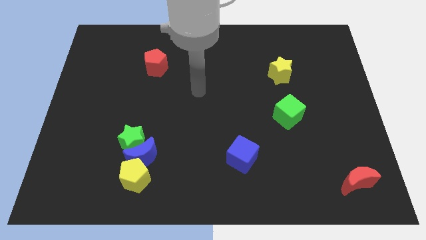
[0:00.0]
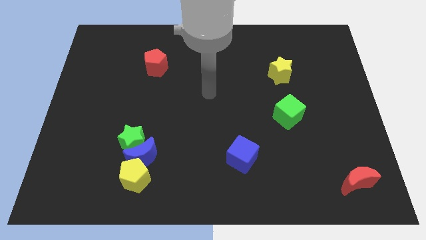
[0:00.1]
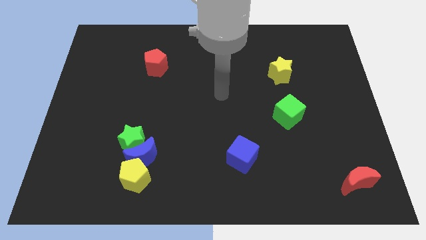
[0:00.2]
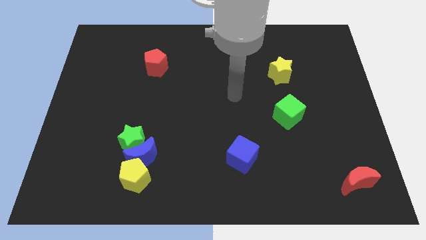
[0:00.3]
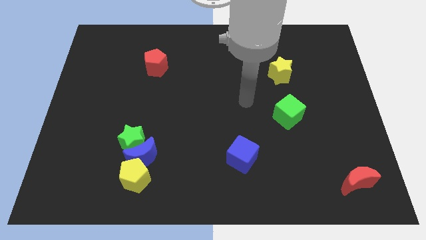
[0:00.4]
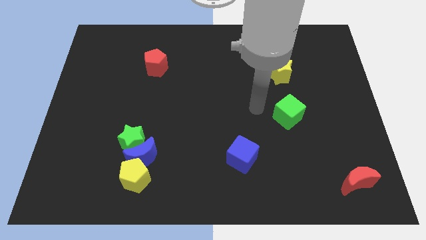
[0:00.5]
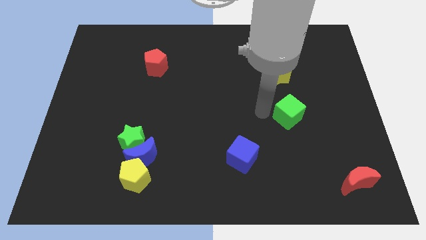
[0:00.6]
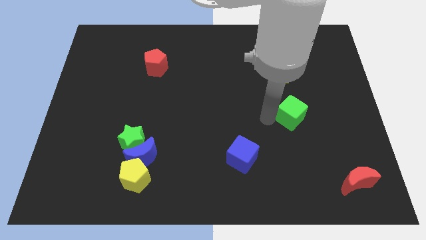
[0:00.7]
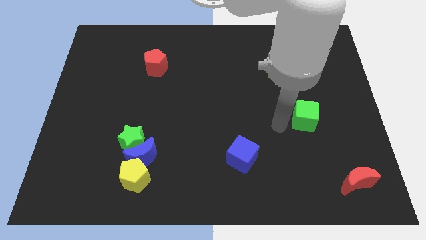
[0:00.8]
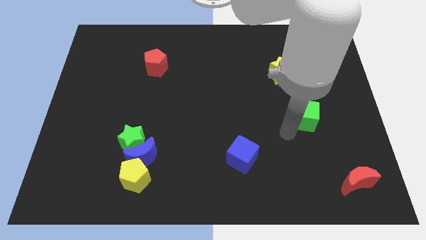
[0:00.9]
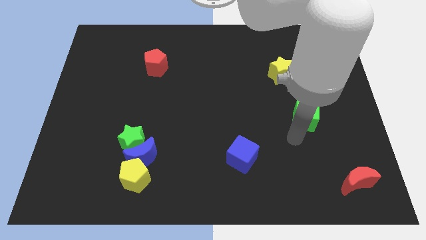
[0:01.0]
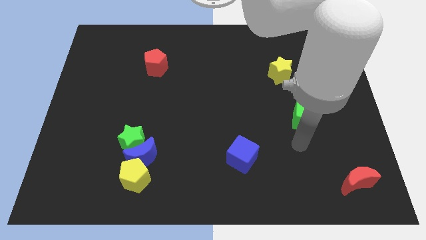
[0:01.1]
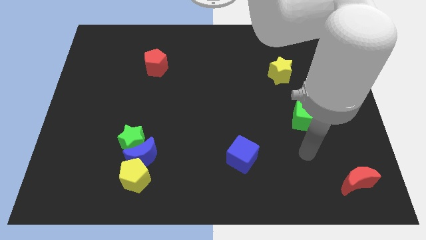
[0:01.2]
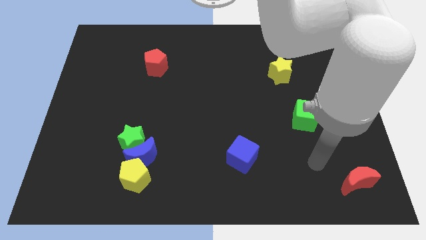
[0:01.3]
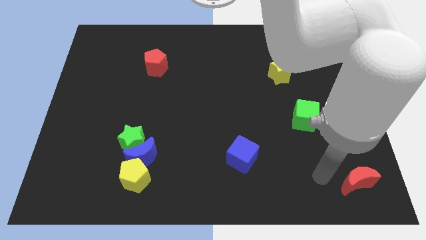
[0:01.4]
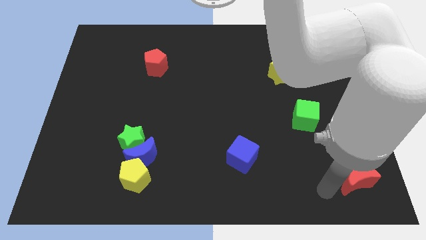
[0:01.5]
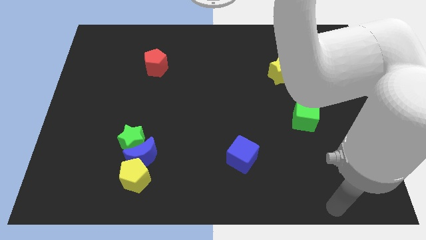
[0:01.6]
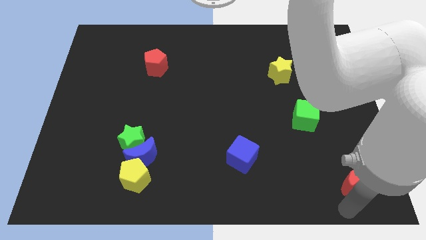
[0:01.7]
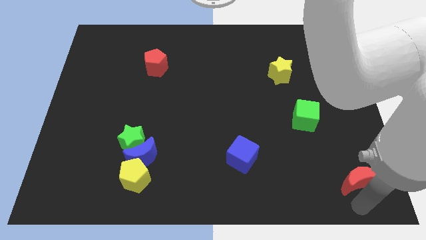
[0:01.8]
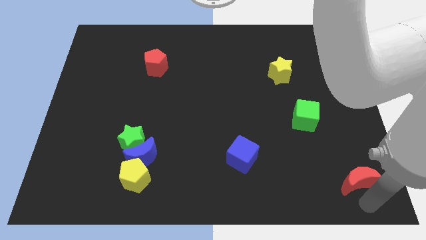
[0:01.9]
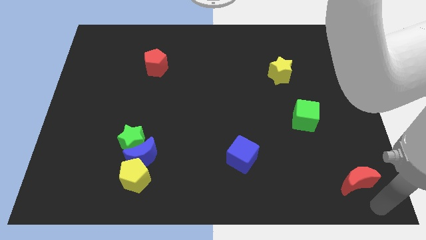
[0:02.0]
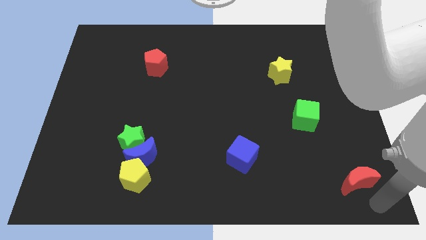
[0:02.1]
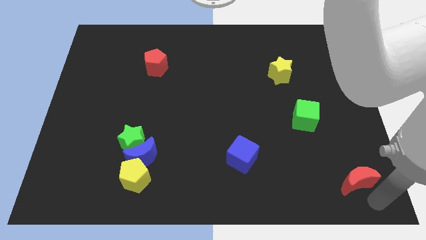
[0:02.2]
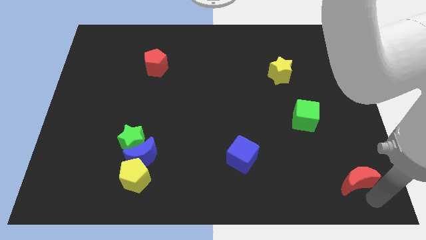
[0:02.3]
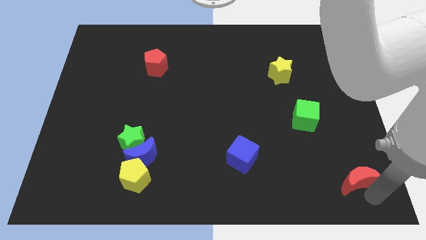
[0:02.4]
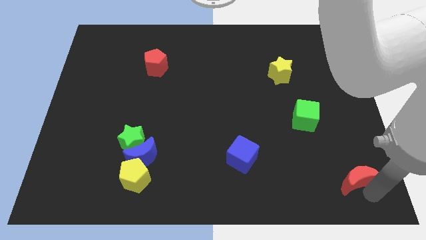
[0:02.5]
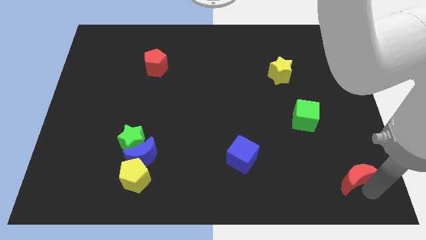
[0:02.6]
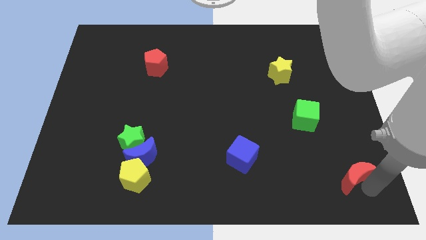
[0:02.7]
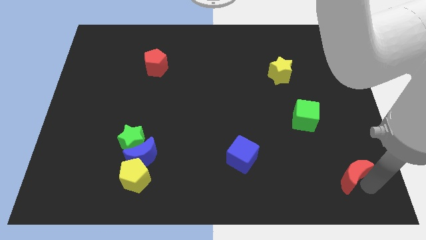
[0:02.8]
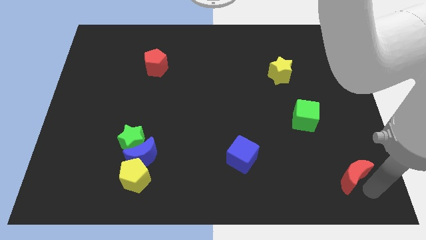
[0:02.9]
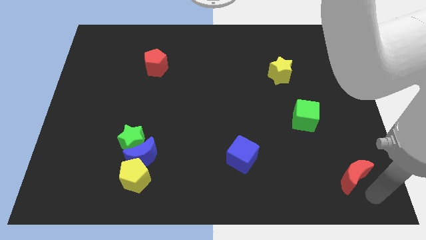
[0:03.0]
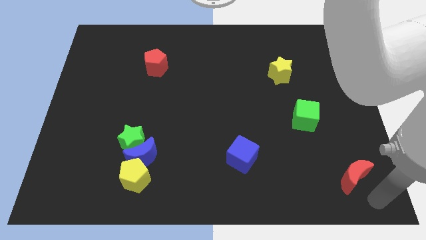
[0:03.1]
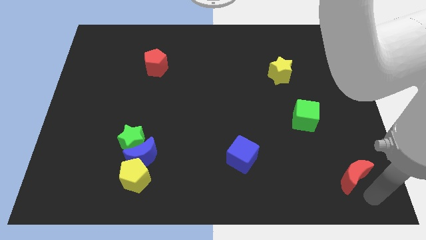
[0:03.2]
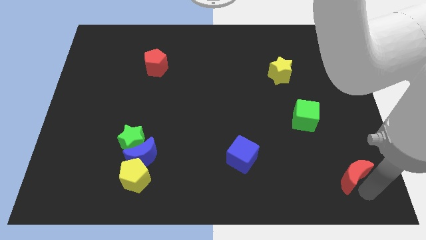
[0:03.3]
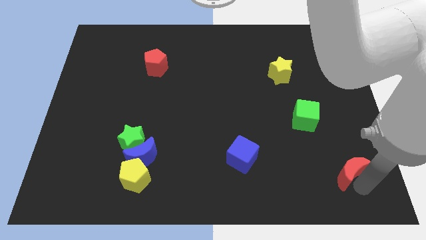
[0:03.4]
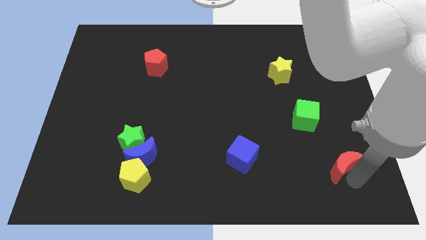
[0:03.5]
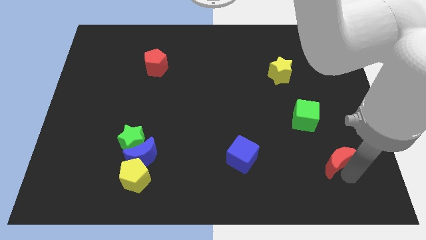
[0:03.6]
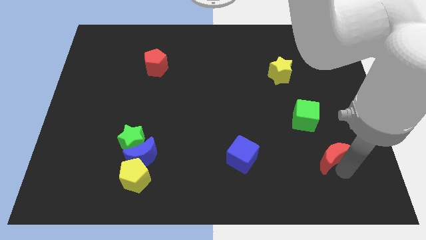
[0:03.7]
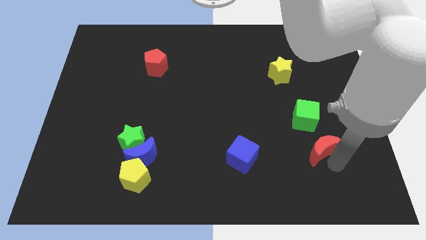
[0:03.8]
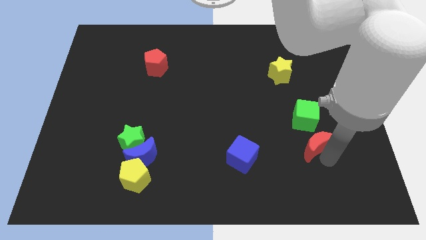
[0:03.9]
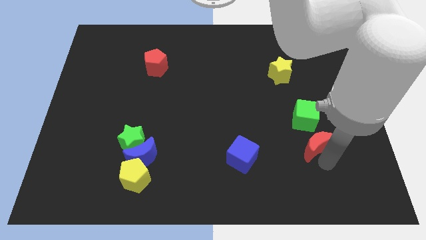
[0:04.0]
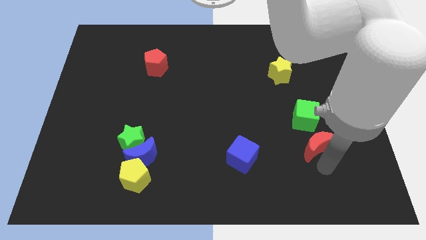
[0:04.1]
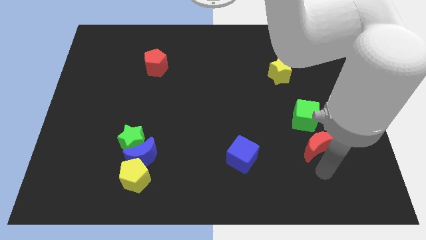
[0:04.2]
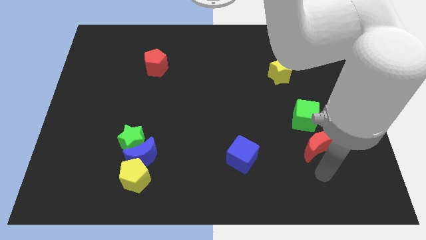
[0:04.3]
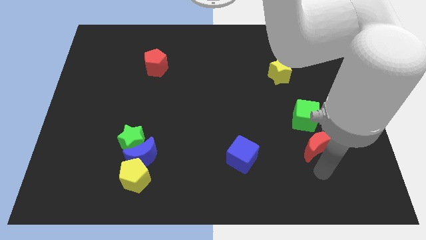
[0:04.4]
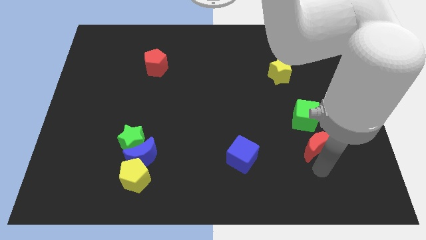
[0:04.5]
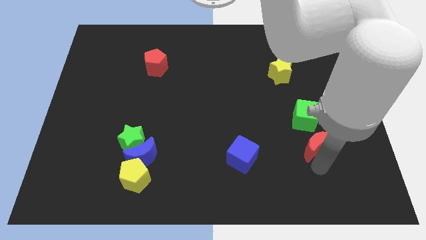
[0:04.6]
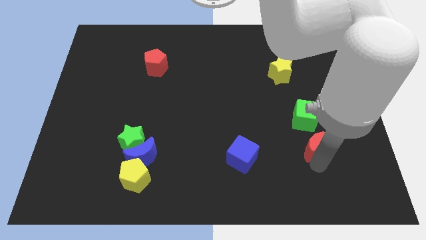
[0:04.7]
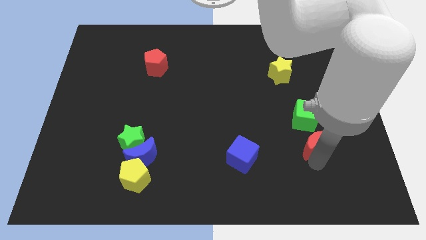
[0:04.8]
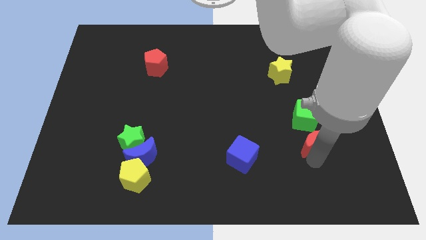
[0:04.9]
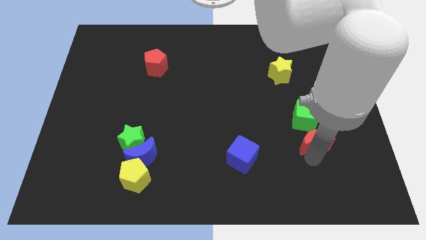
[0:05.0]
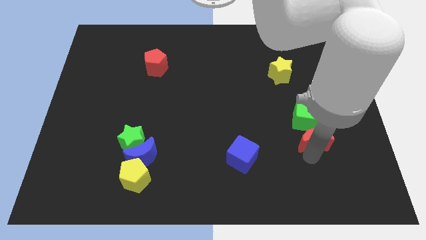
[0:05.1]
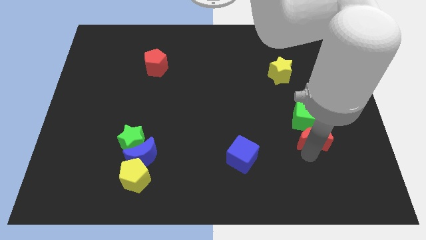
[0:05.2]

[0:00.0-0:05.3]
slide the red moon close to the green cube

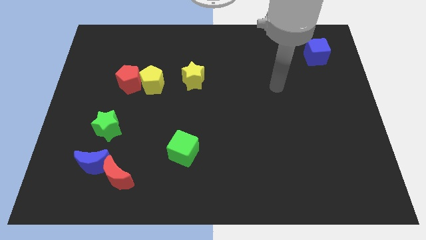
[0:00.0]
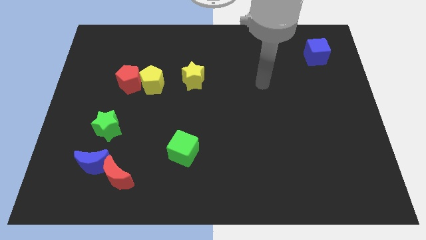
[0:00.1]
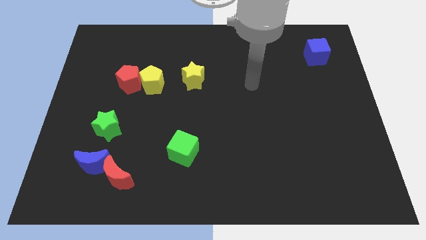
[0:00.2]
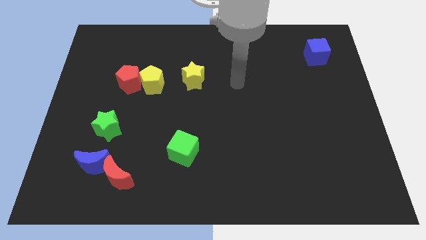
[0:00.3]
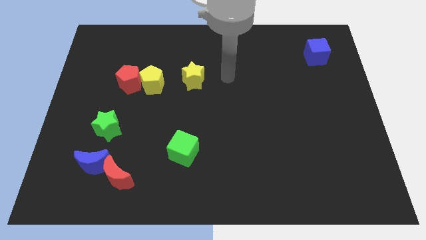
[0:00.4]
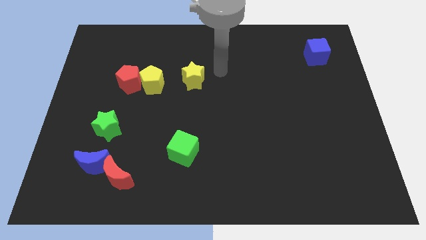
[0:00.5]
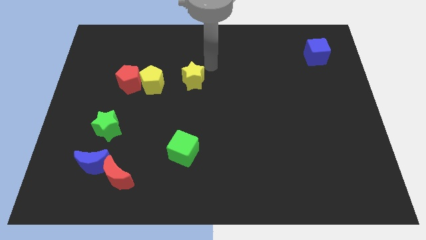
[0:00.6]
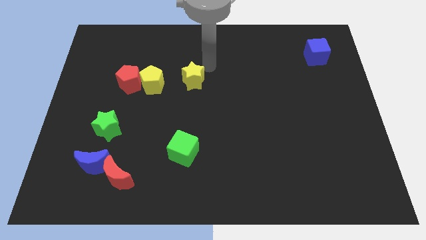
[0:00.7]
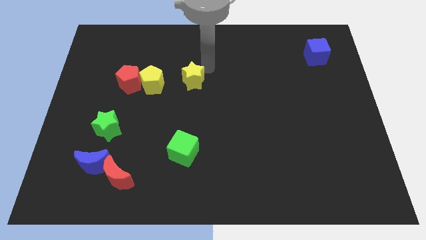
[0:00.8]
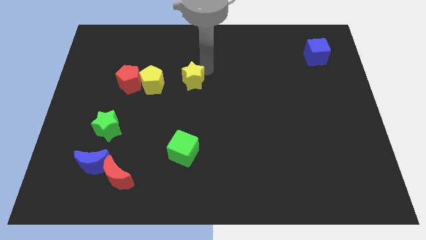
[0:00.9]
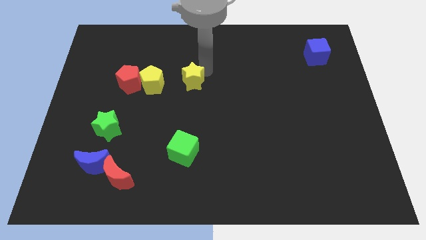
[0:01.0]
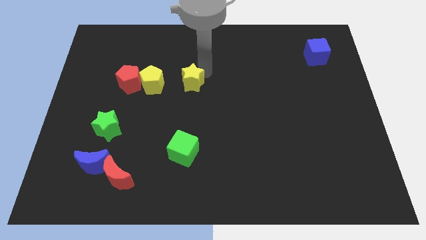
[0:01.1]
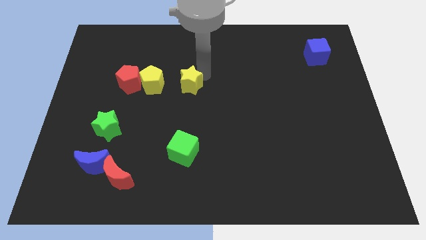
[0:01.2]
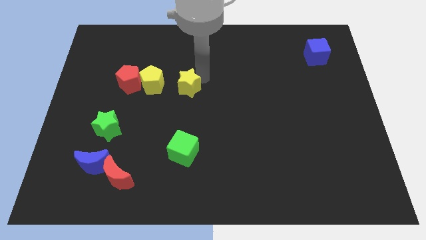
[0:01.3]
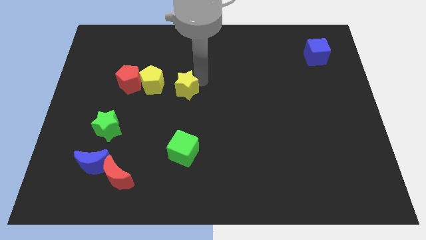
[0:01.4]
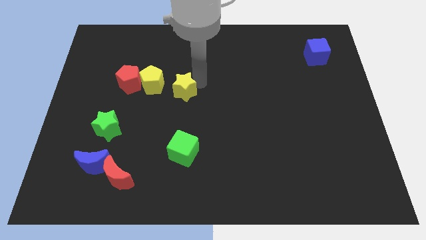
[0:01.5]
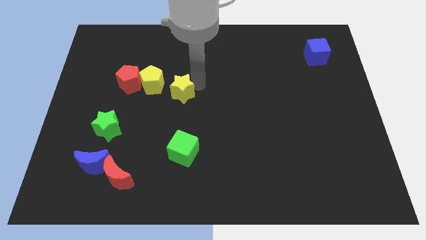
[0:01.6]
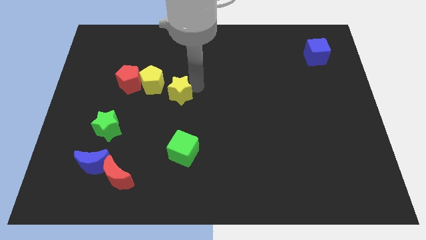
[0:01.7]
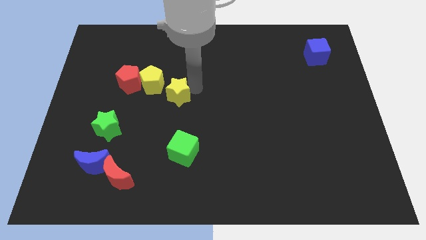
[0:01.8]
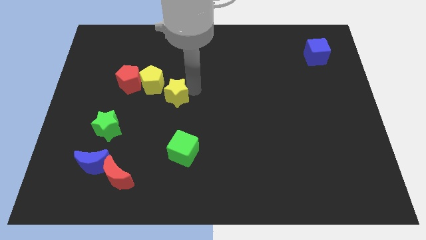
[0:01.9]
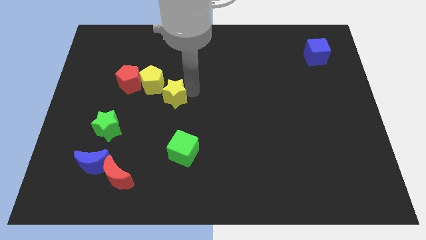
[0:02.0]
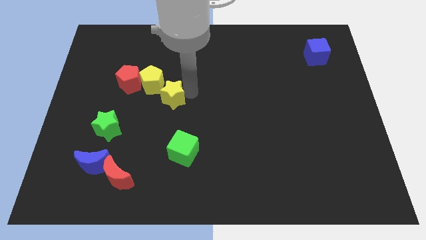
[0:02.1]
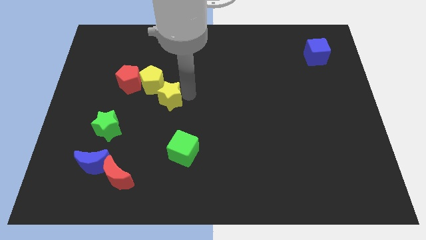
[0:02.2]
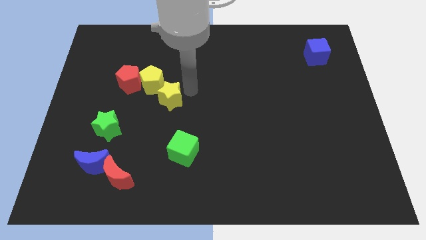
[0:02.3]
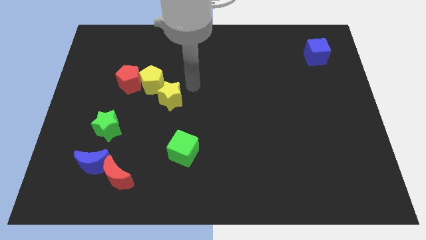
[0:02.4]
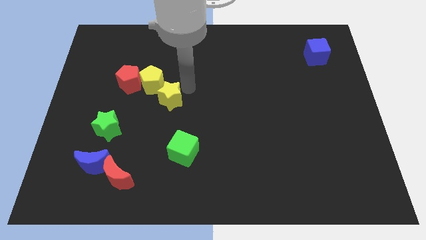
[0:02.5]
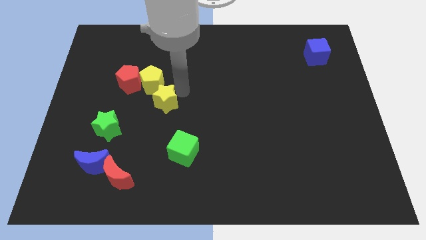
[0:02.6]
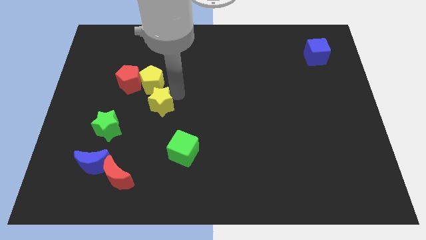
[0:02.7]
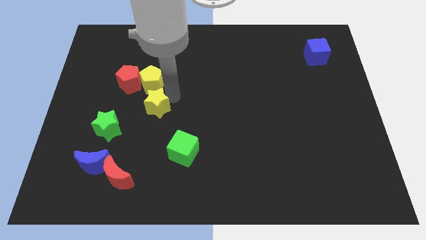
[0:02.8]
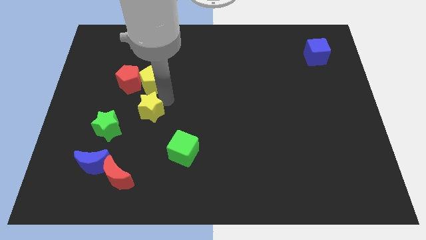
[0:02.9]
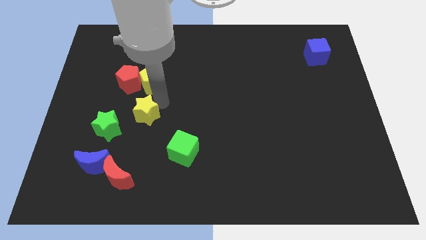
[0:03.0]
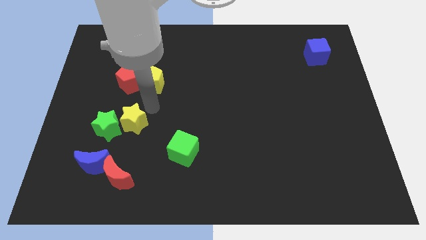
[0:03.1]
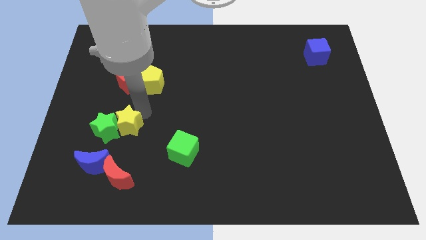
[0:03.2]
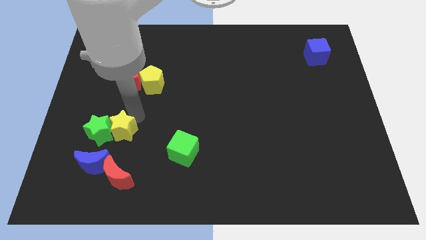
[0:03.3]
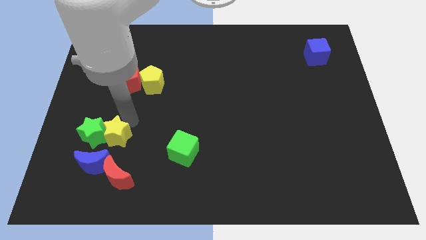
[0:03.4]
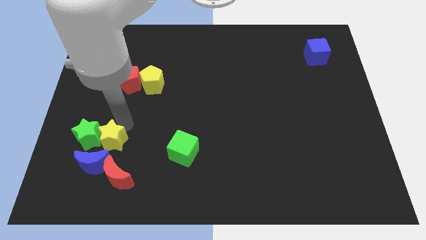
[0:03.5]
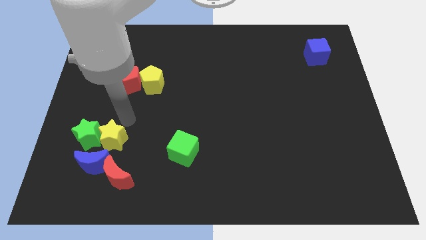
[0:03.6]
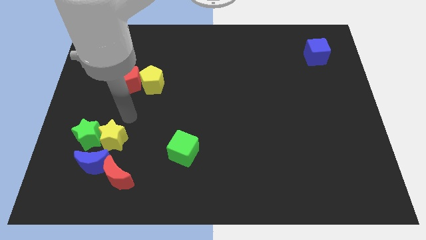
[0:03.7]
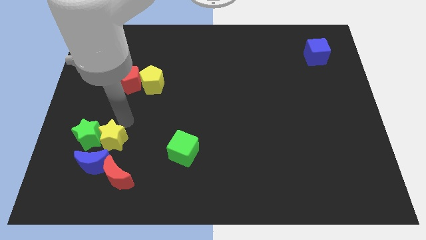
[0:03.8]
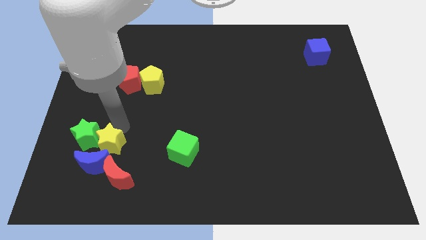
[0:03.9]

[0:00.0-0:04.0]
move the yellow star close to the blue moon
